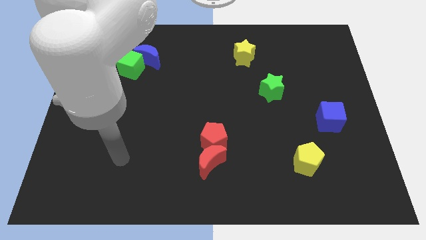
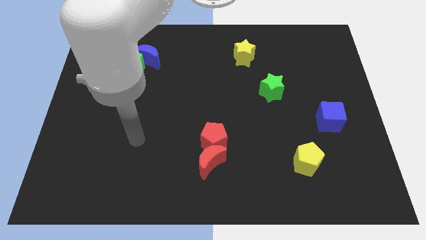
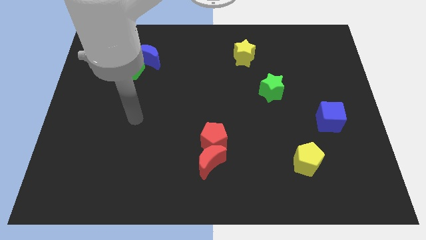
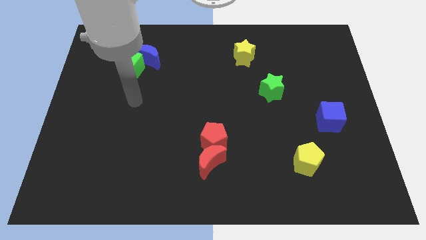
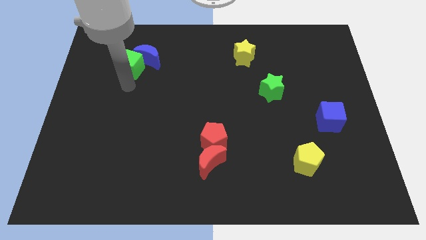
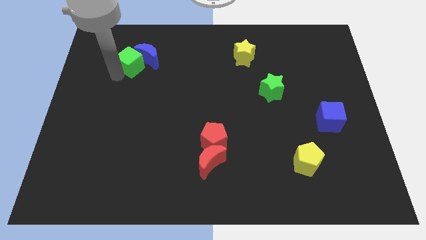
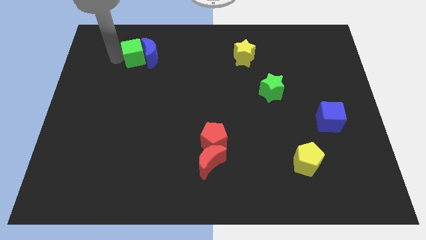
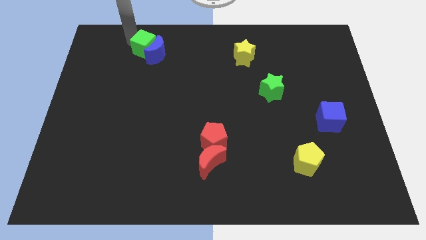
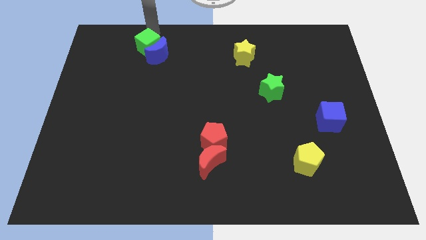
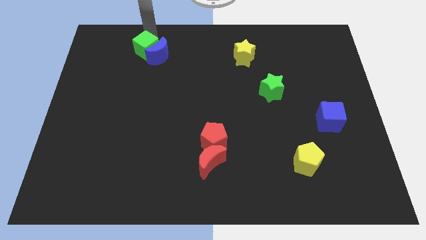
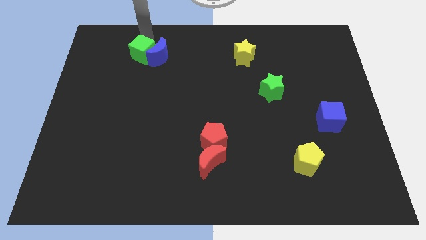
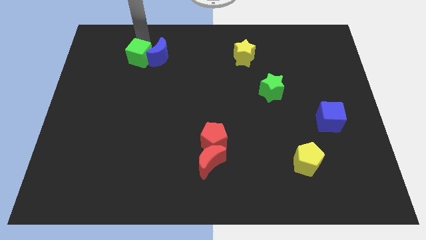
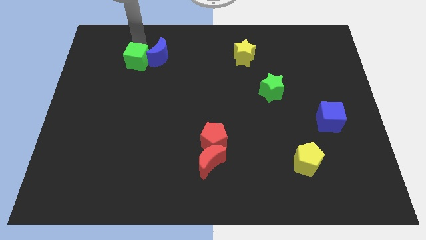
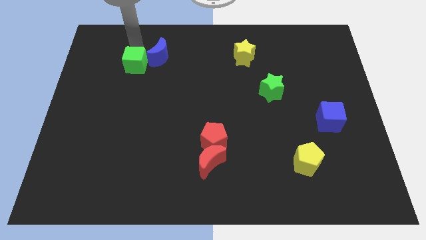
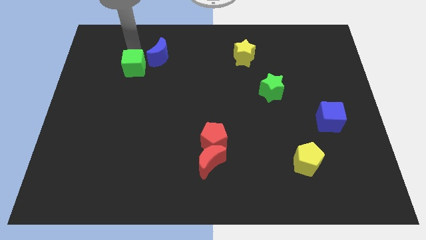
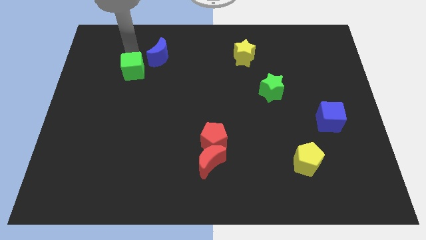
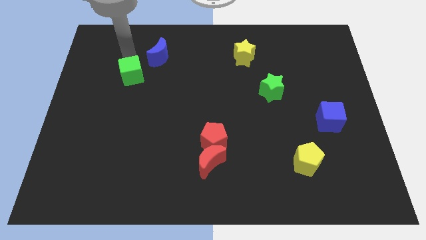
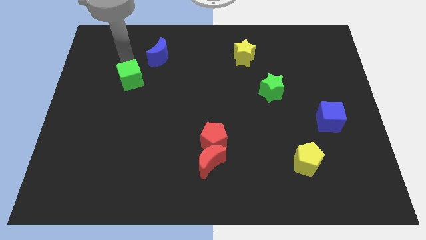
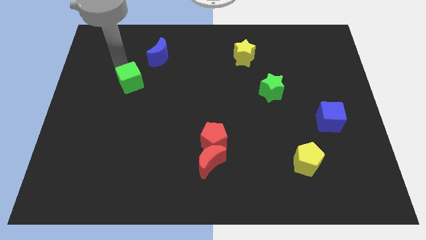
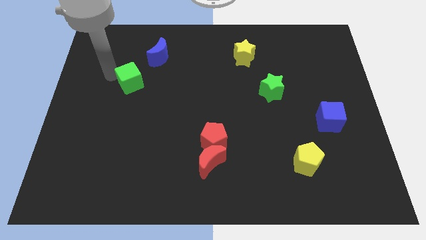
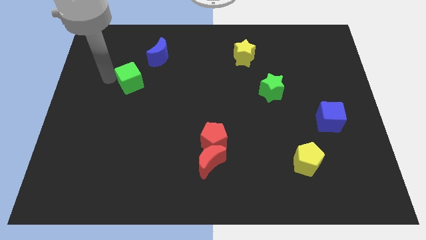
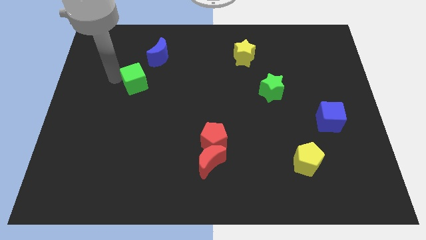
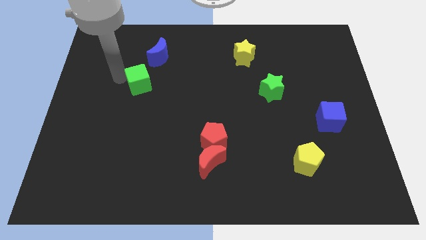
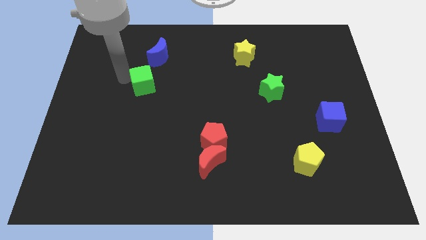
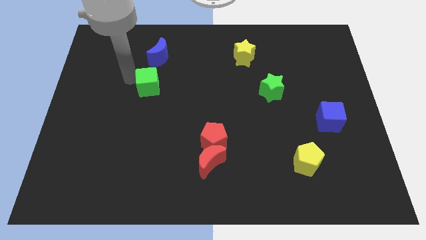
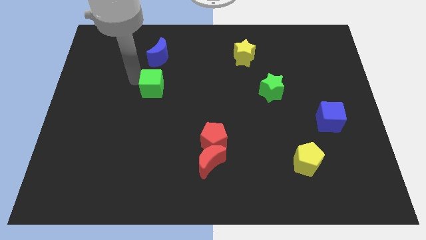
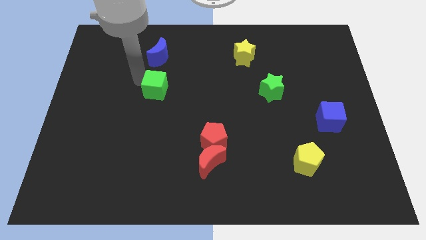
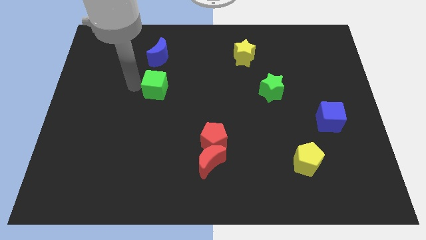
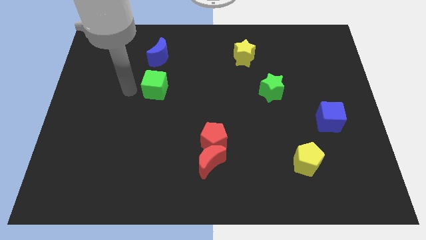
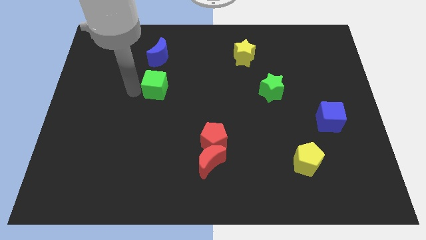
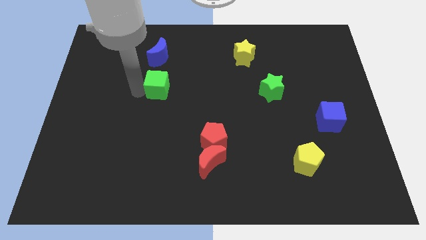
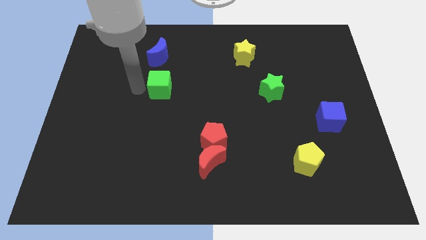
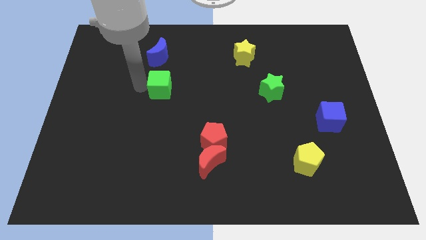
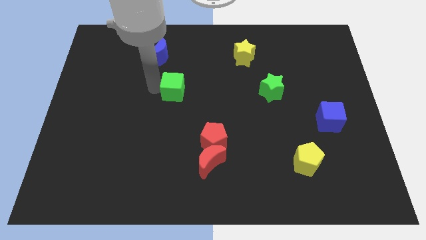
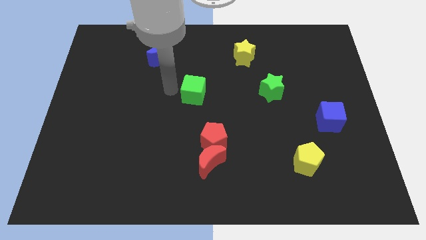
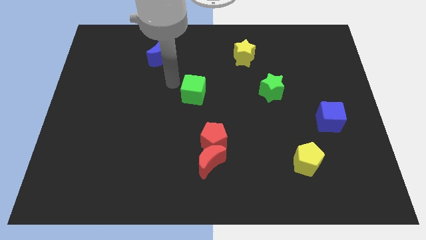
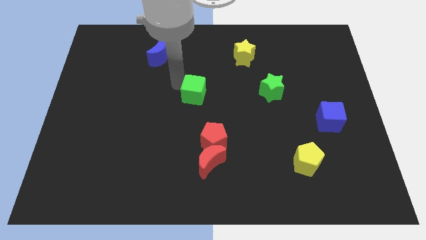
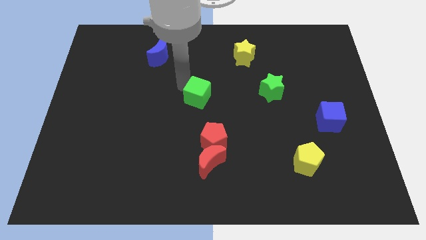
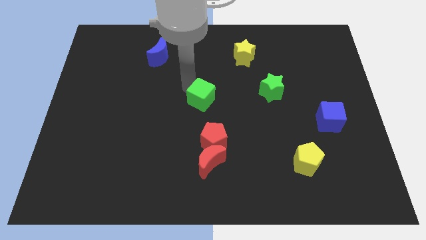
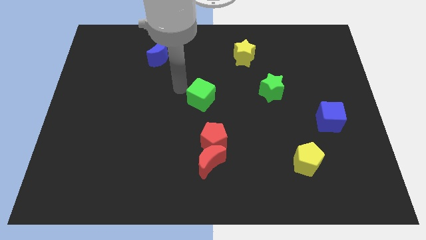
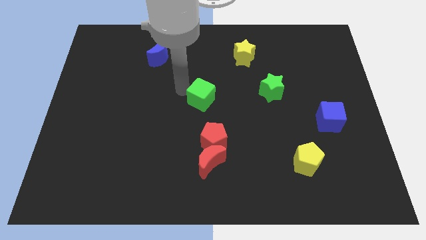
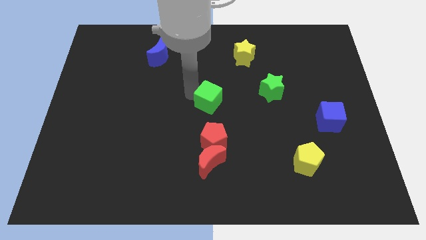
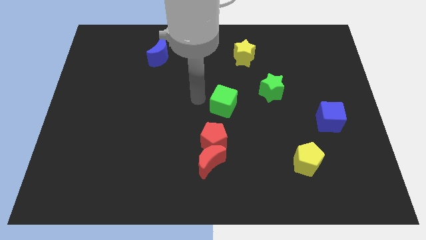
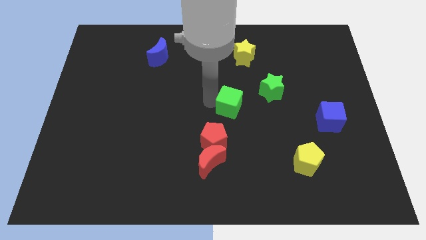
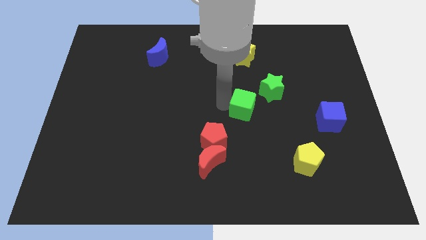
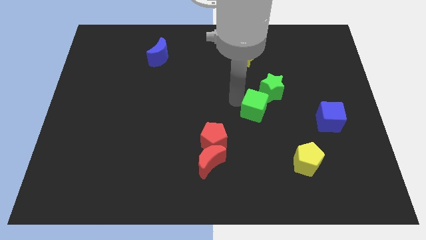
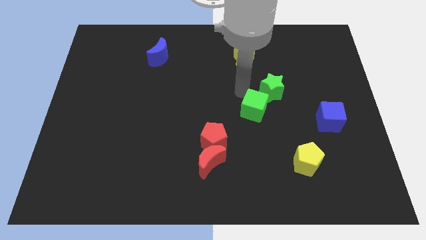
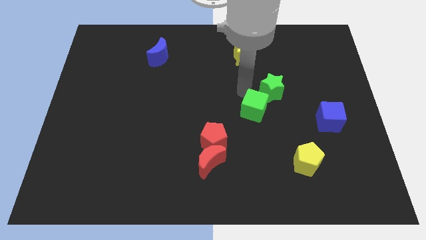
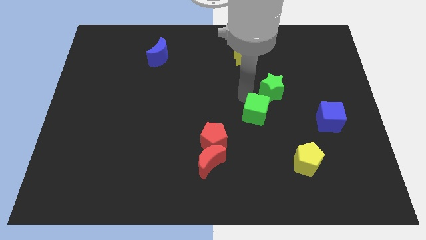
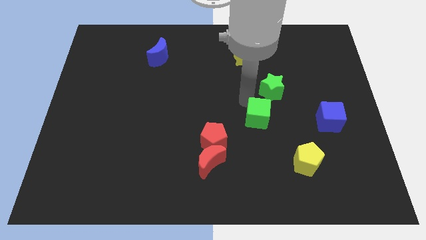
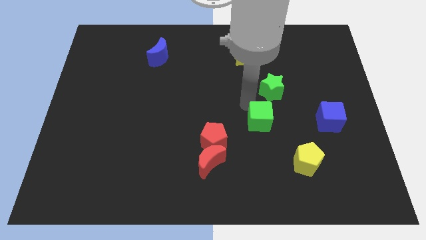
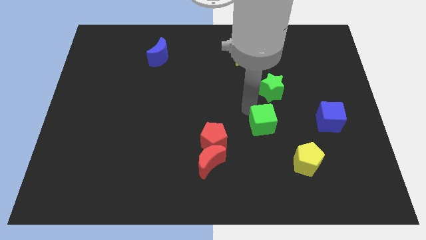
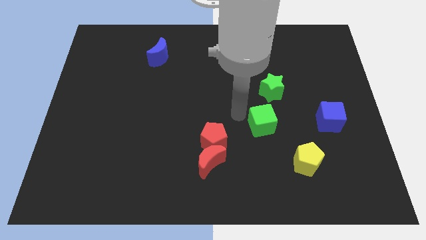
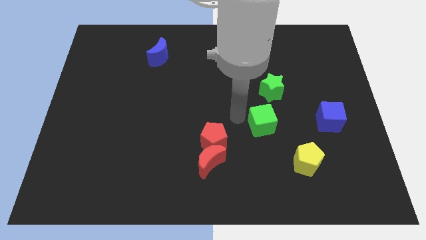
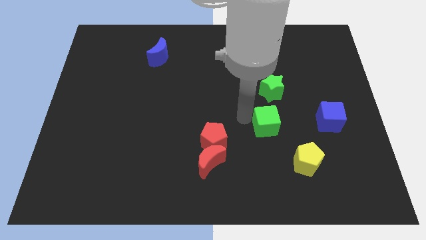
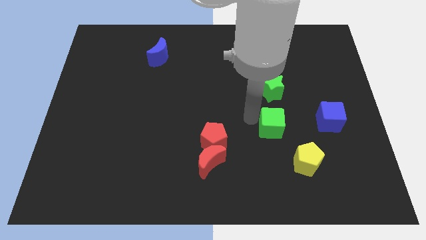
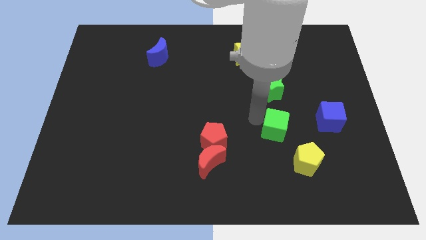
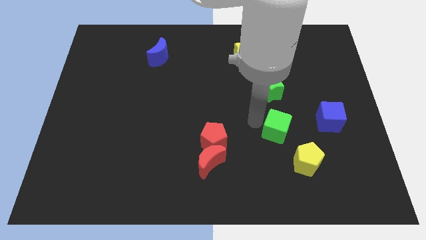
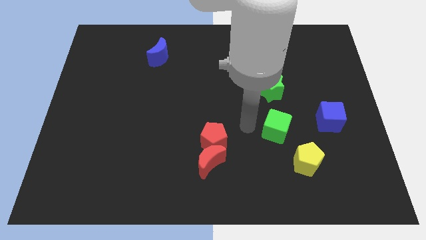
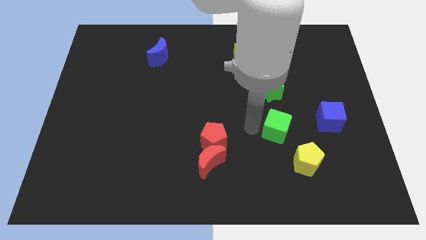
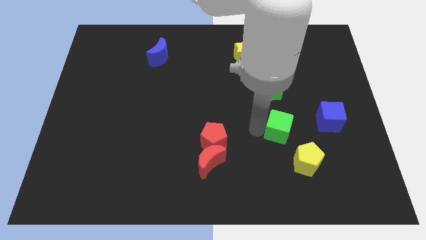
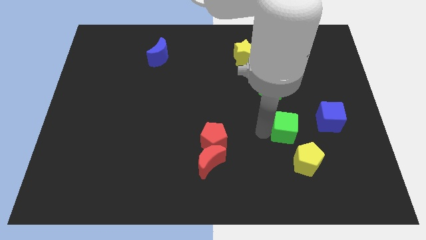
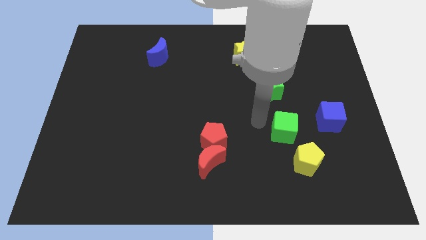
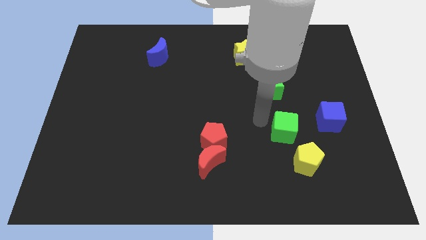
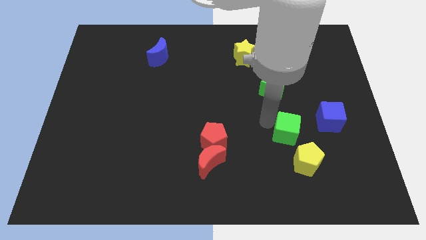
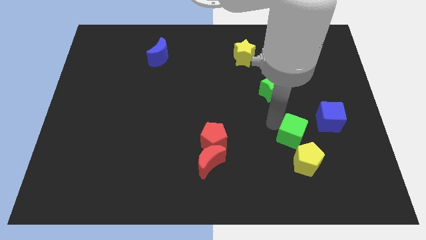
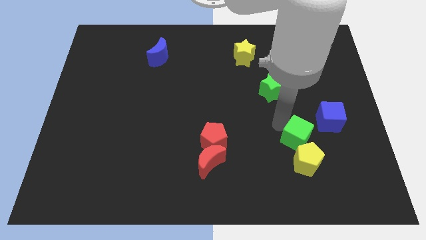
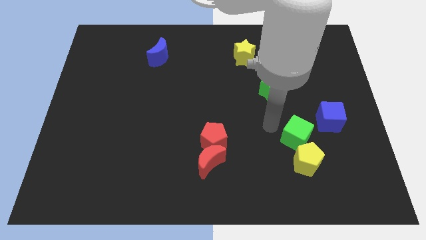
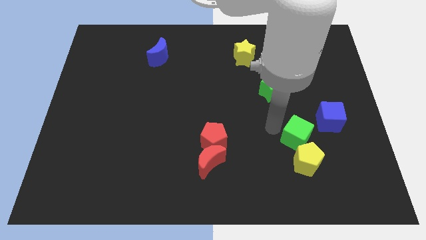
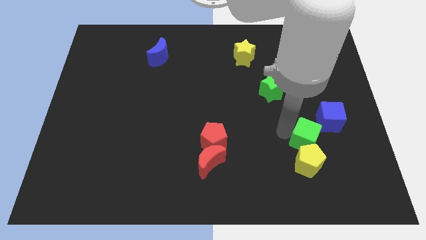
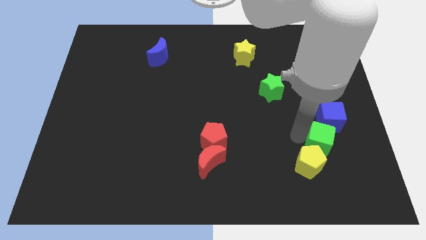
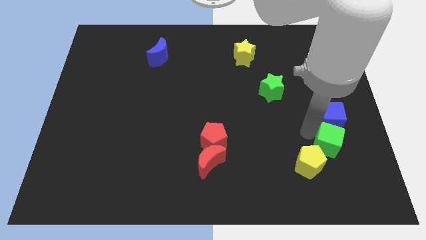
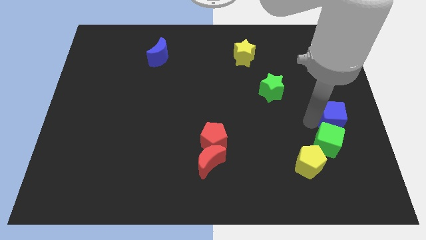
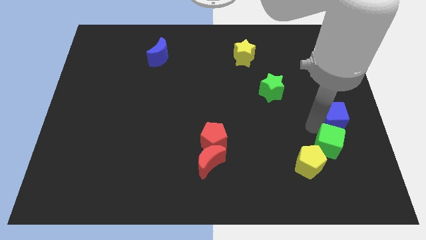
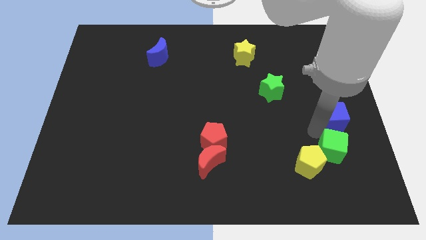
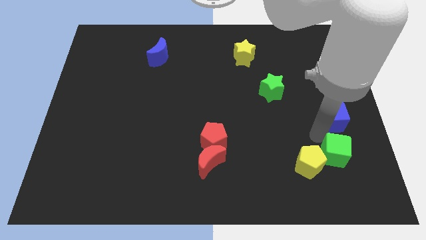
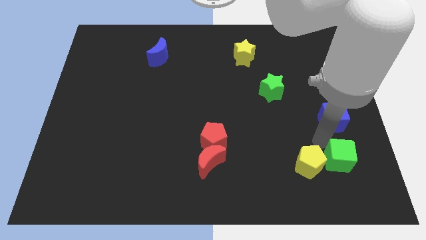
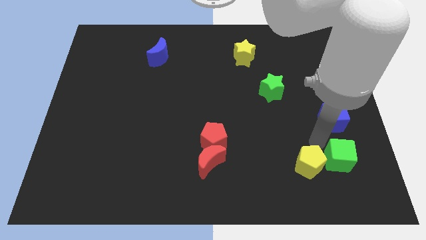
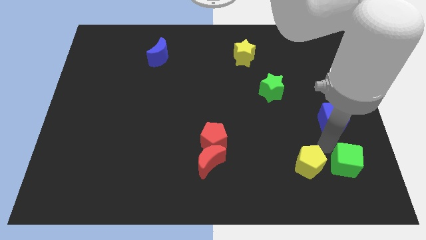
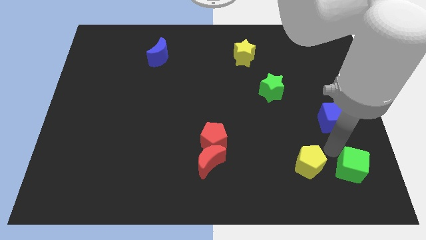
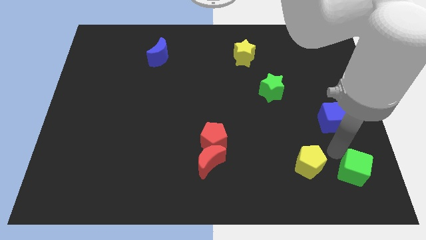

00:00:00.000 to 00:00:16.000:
slide the green cube to the bottom right
